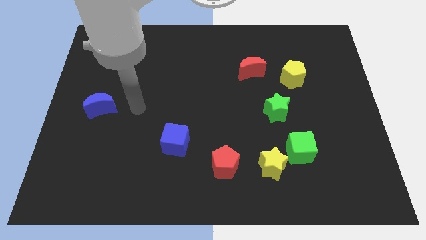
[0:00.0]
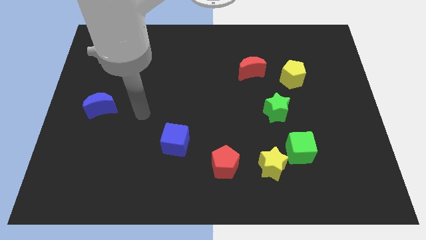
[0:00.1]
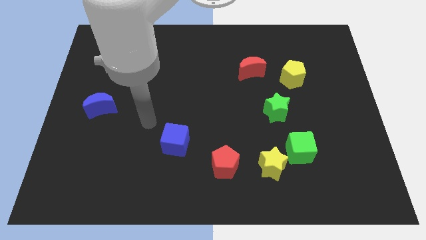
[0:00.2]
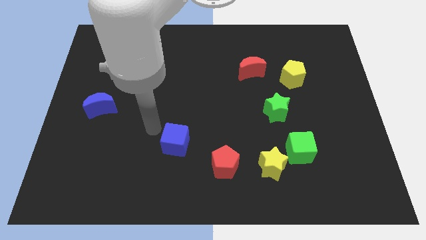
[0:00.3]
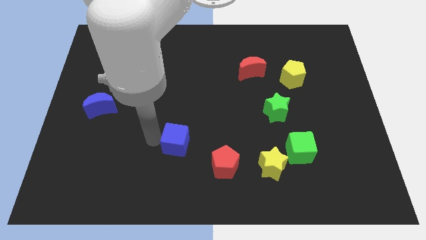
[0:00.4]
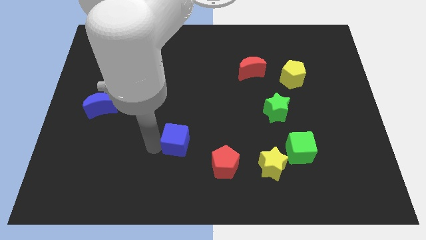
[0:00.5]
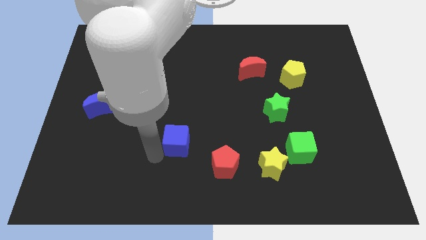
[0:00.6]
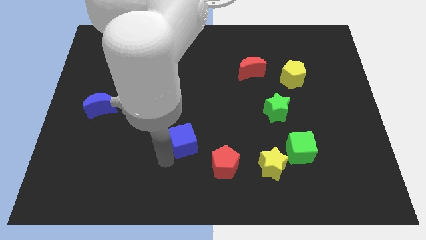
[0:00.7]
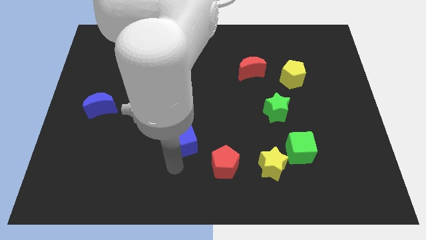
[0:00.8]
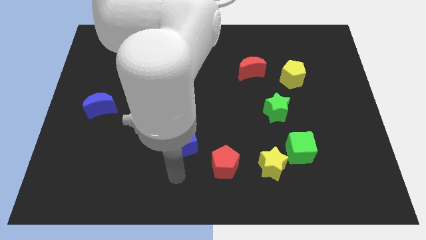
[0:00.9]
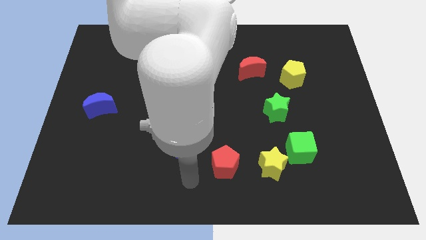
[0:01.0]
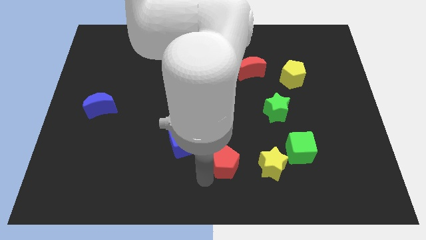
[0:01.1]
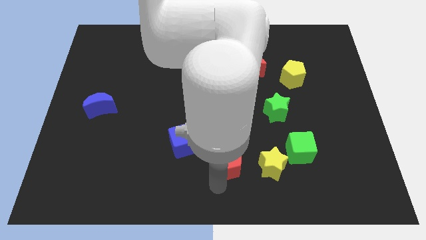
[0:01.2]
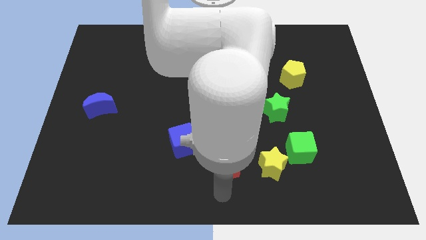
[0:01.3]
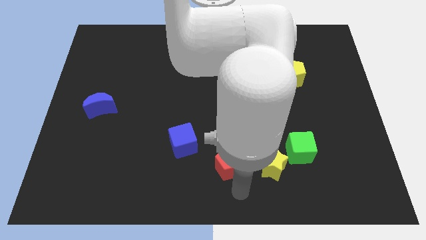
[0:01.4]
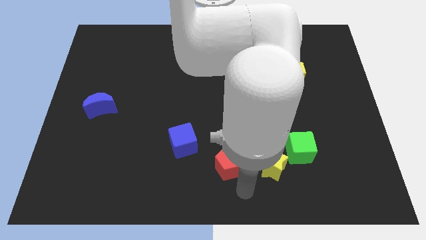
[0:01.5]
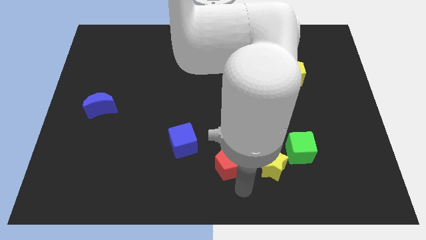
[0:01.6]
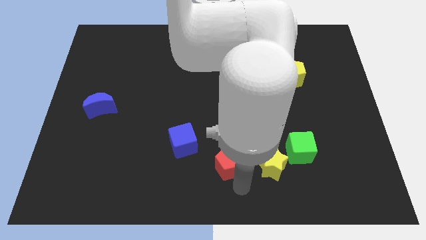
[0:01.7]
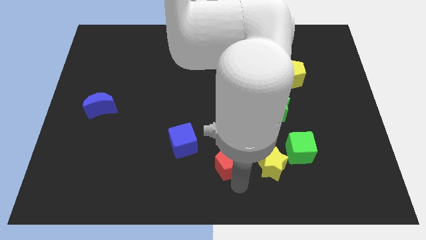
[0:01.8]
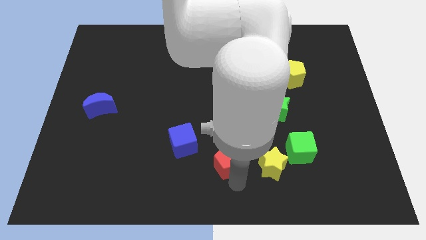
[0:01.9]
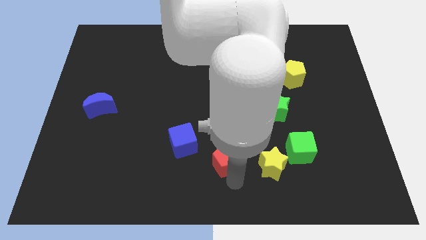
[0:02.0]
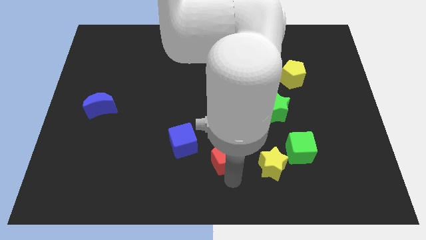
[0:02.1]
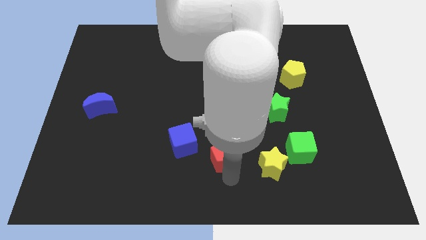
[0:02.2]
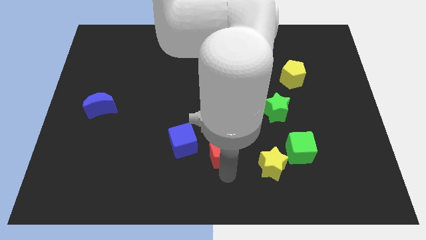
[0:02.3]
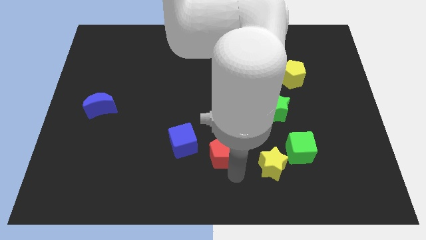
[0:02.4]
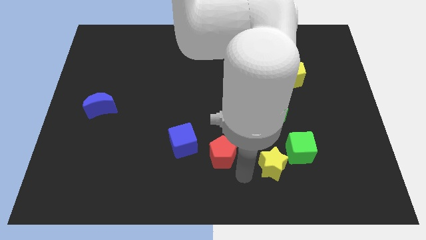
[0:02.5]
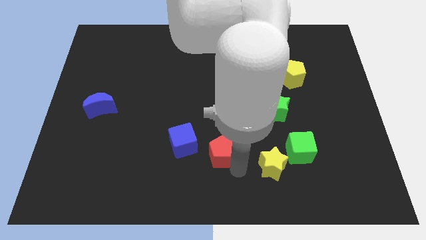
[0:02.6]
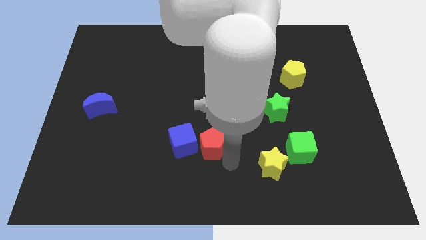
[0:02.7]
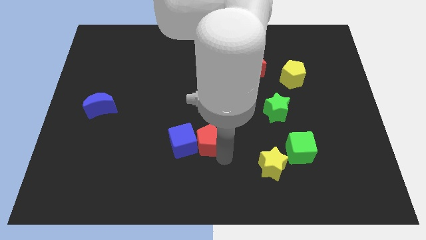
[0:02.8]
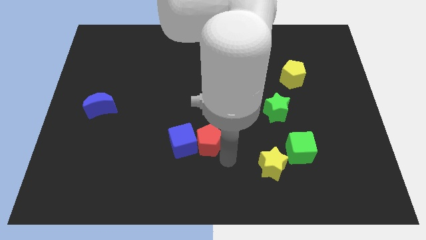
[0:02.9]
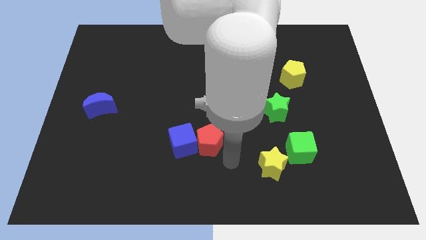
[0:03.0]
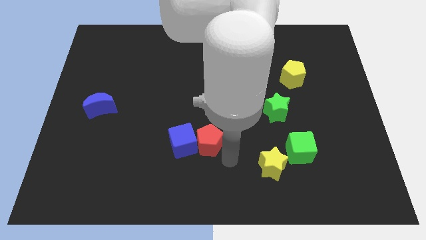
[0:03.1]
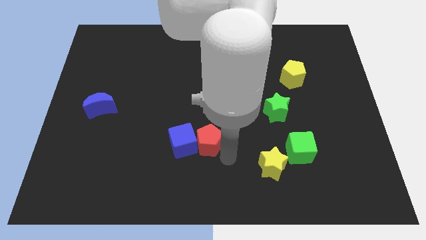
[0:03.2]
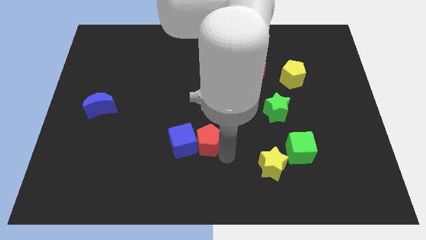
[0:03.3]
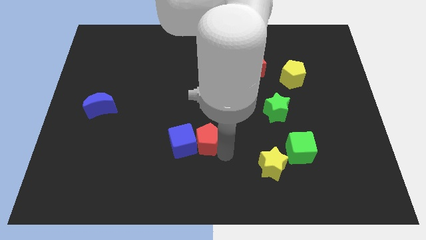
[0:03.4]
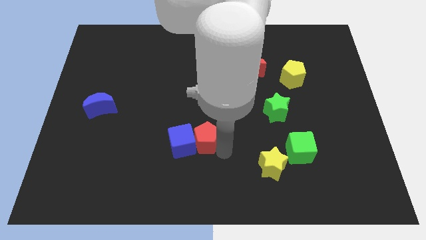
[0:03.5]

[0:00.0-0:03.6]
slightly move the red pentagon up and left diagonally

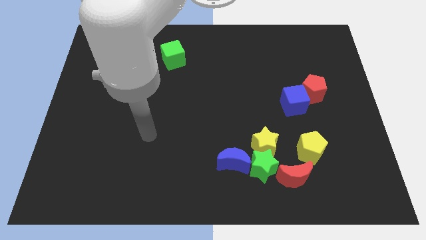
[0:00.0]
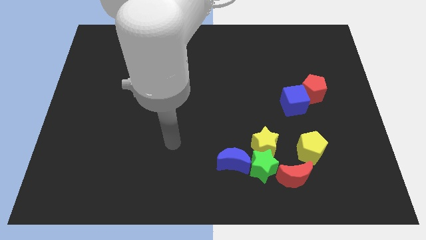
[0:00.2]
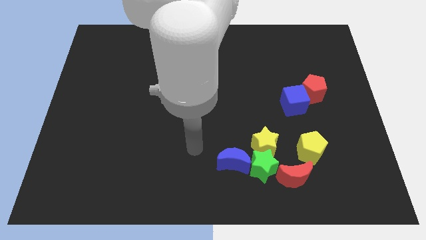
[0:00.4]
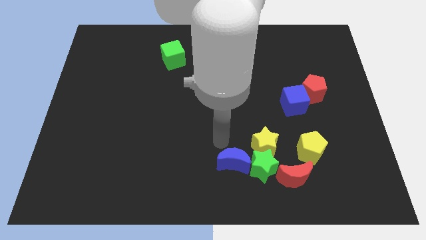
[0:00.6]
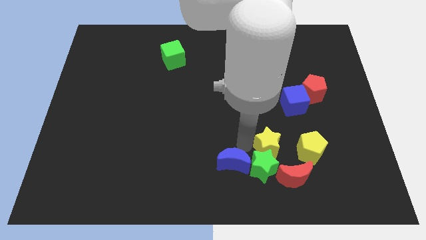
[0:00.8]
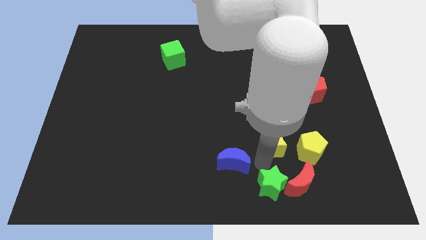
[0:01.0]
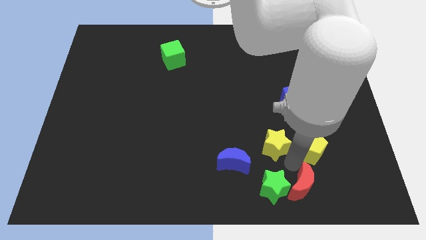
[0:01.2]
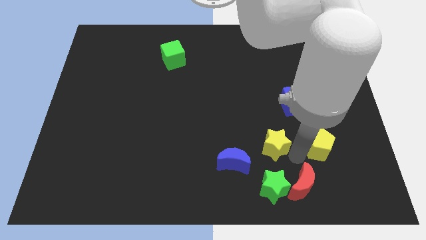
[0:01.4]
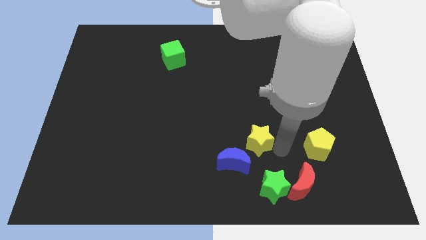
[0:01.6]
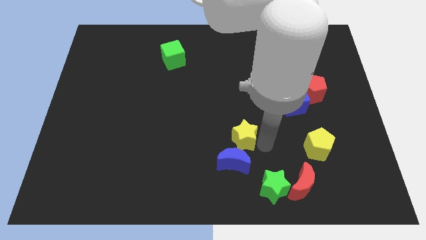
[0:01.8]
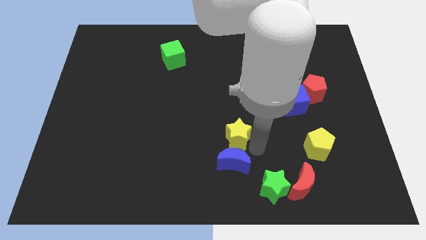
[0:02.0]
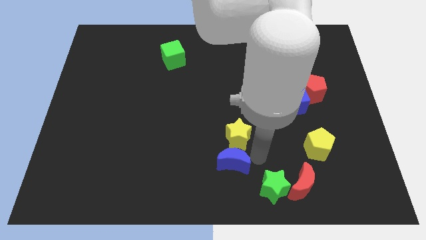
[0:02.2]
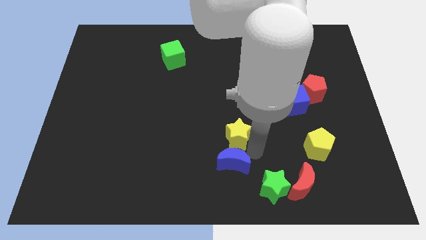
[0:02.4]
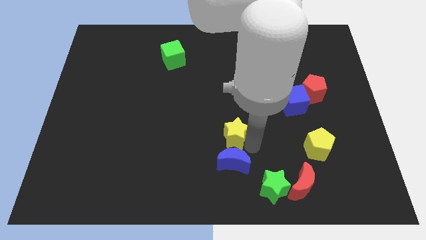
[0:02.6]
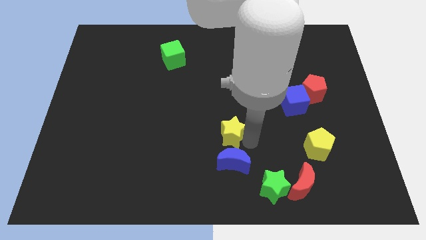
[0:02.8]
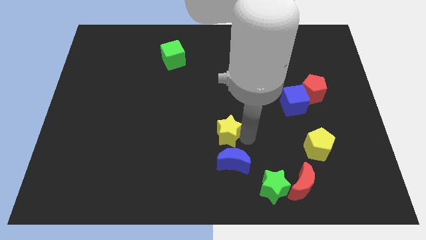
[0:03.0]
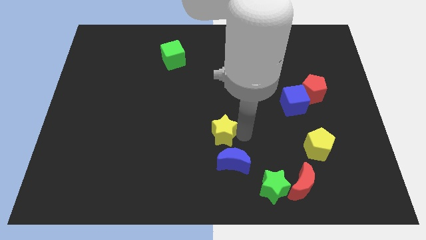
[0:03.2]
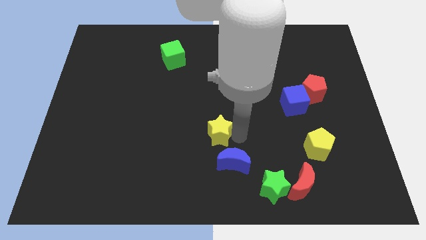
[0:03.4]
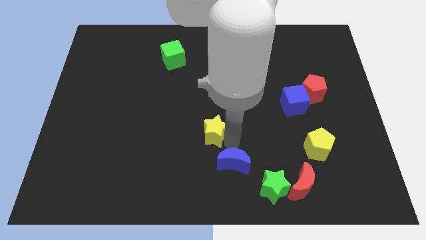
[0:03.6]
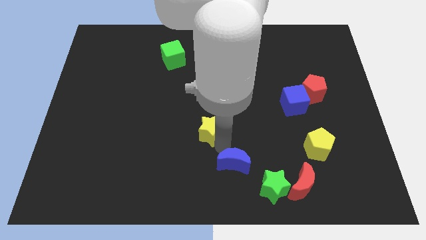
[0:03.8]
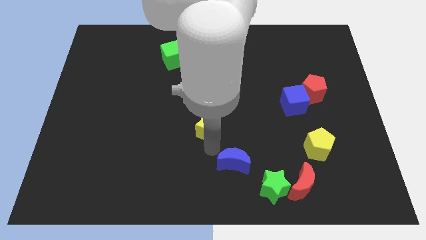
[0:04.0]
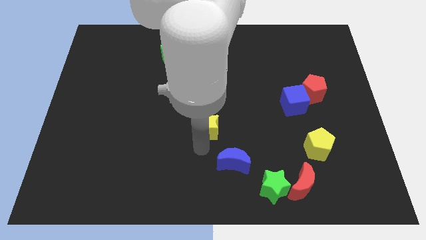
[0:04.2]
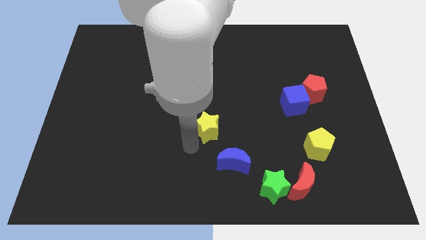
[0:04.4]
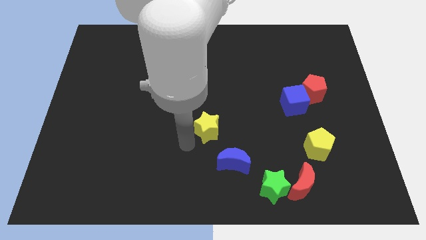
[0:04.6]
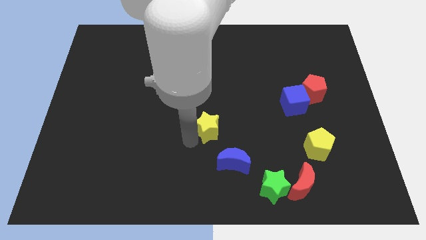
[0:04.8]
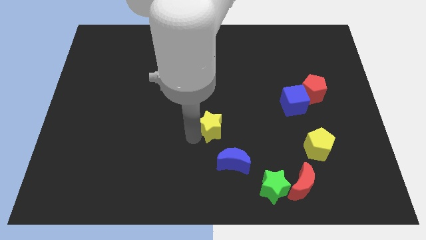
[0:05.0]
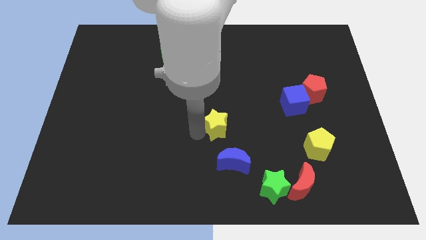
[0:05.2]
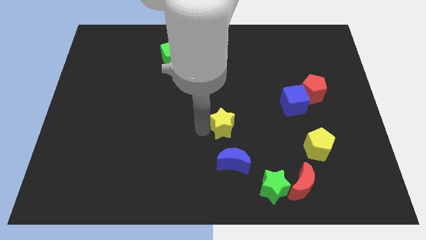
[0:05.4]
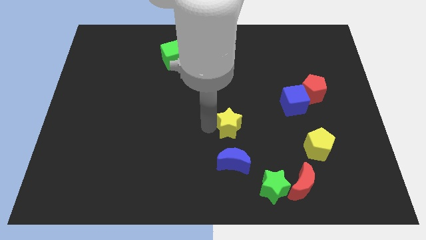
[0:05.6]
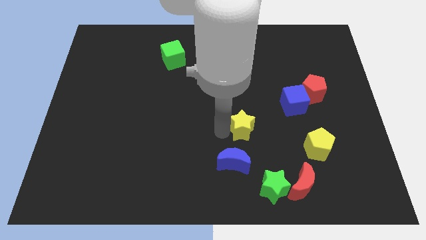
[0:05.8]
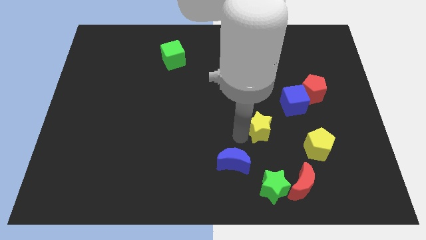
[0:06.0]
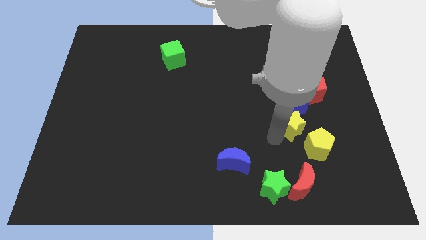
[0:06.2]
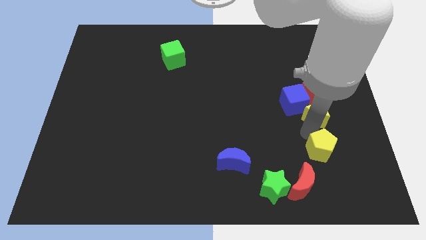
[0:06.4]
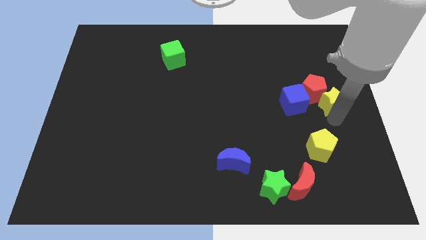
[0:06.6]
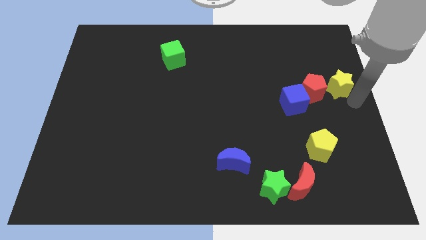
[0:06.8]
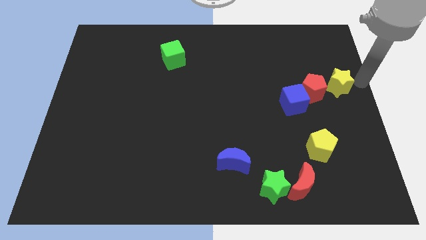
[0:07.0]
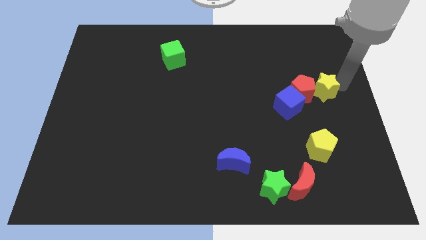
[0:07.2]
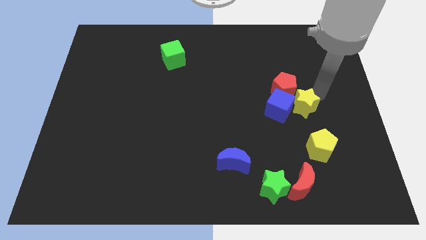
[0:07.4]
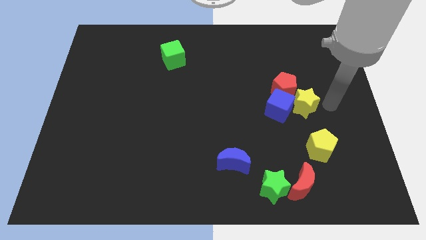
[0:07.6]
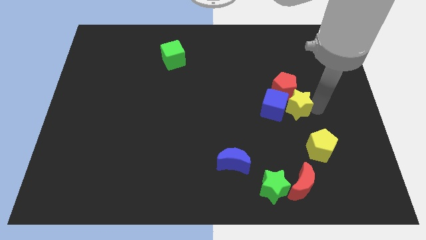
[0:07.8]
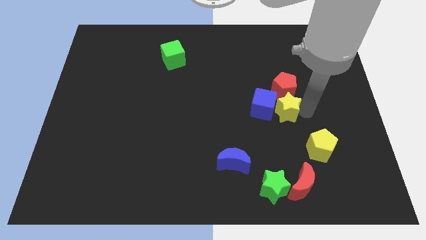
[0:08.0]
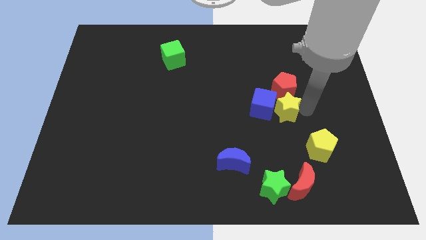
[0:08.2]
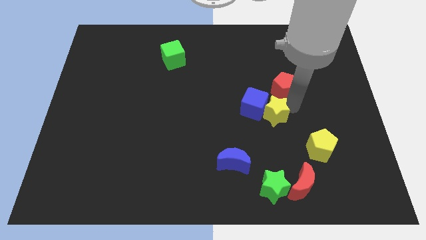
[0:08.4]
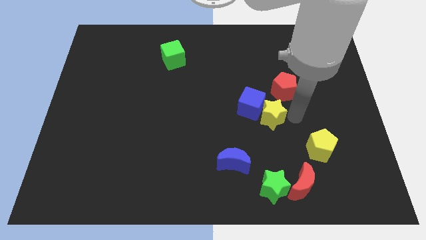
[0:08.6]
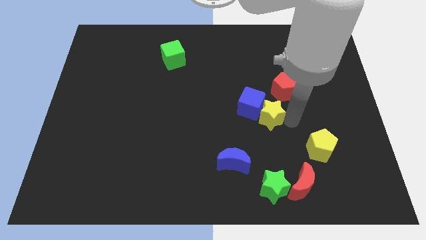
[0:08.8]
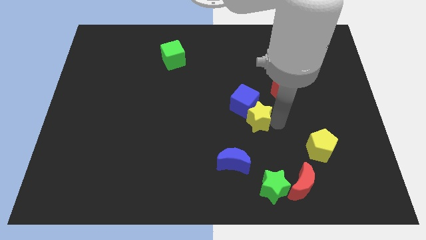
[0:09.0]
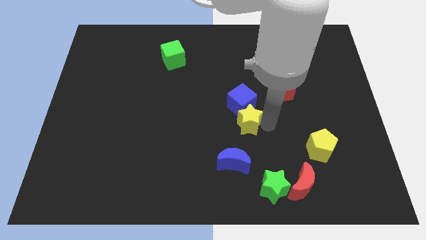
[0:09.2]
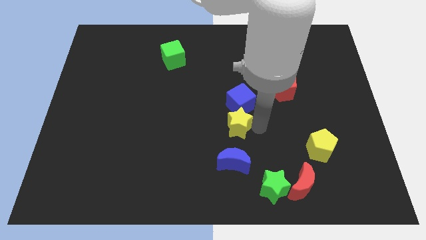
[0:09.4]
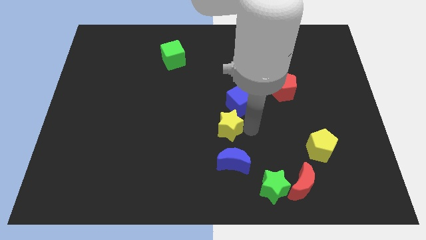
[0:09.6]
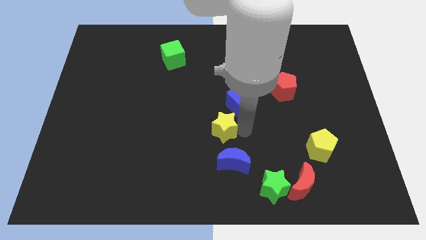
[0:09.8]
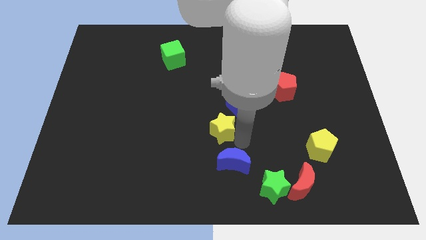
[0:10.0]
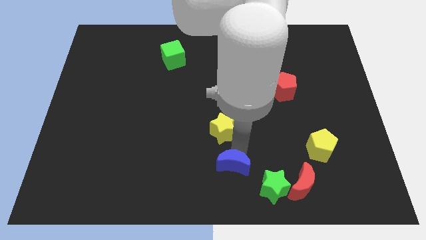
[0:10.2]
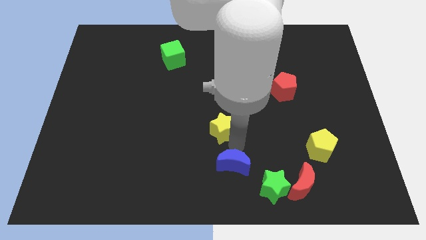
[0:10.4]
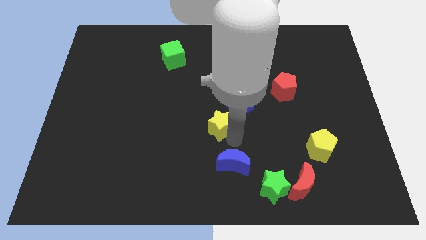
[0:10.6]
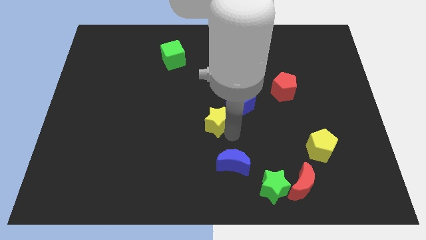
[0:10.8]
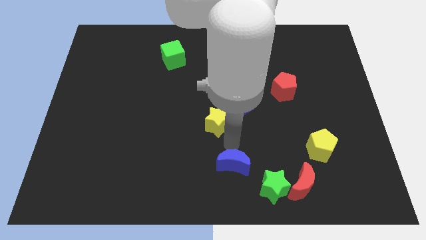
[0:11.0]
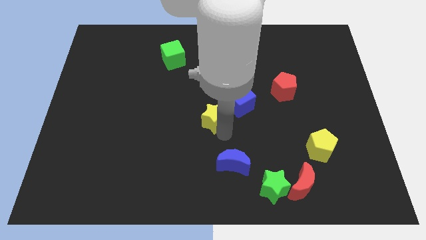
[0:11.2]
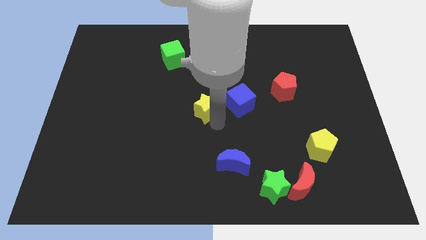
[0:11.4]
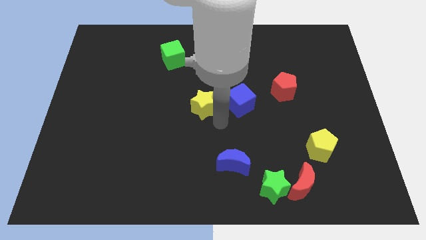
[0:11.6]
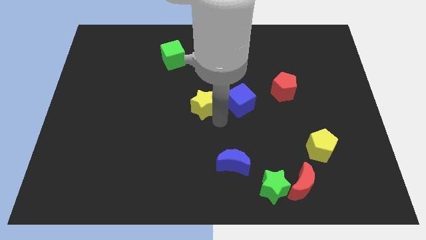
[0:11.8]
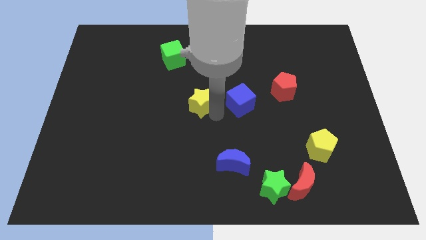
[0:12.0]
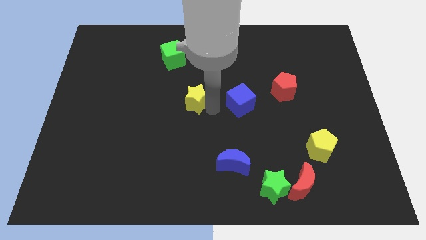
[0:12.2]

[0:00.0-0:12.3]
move the yellow star up and then left
